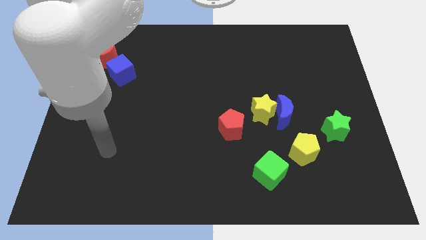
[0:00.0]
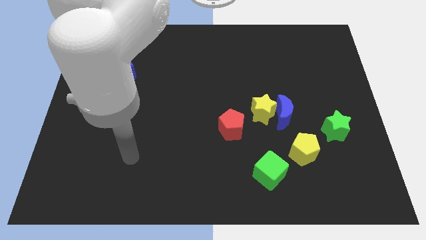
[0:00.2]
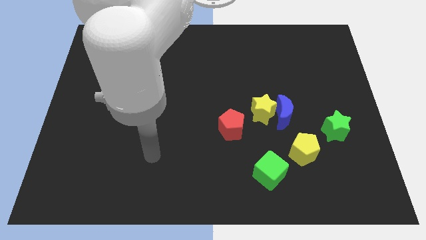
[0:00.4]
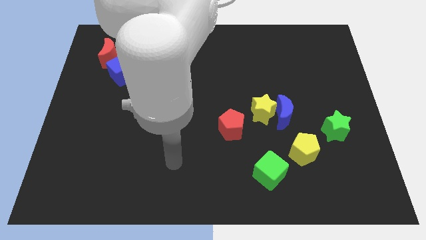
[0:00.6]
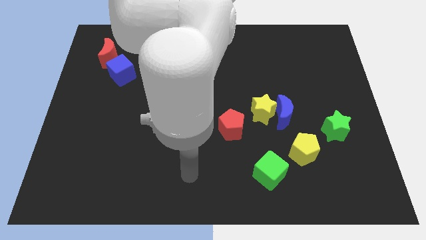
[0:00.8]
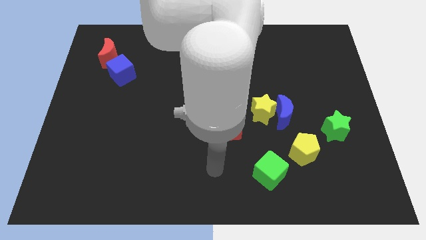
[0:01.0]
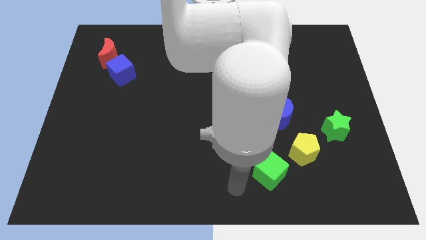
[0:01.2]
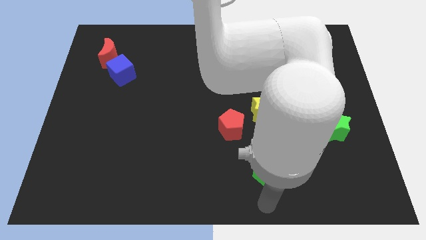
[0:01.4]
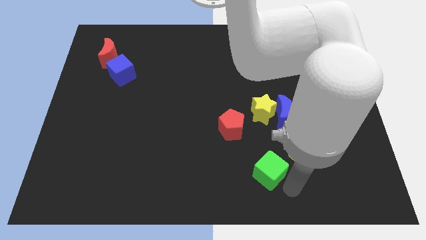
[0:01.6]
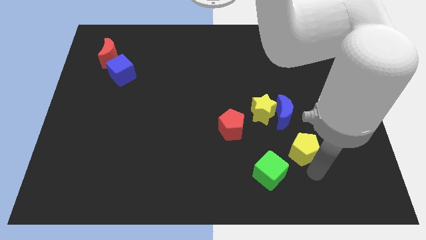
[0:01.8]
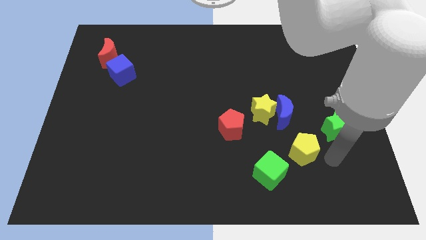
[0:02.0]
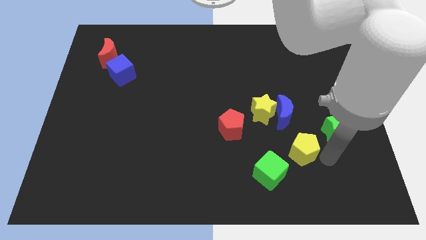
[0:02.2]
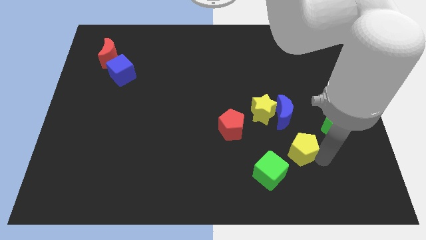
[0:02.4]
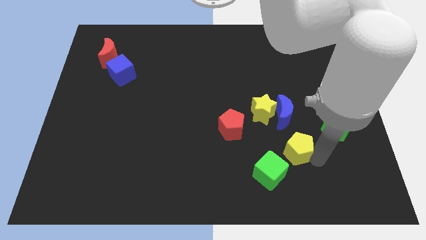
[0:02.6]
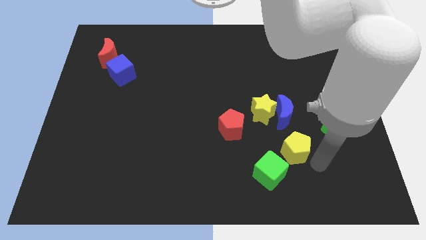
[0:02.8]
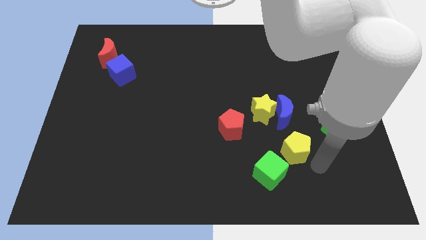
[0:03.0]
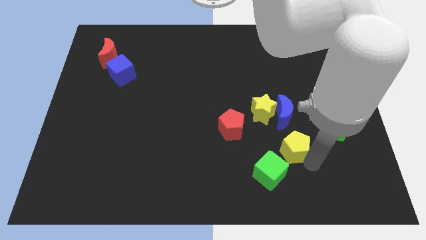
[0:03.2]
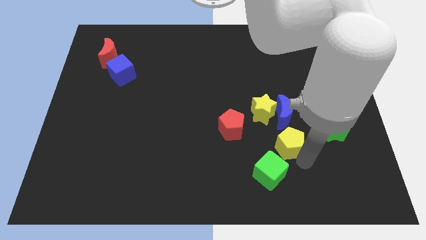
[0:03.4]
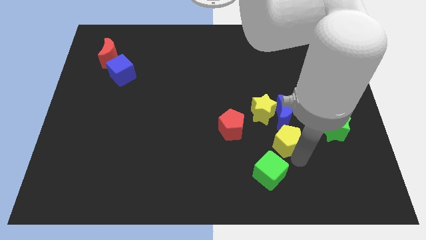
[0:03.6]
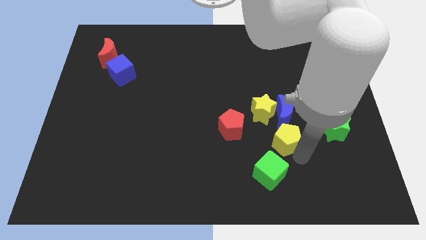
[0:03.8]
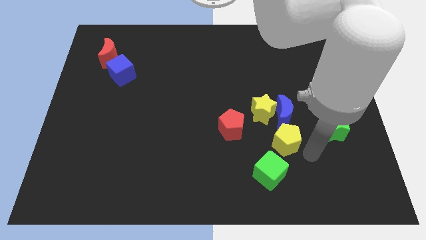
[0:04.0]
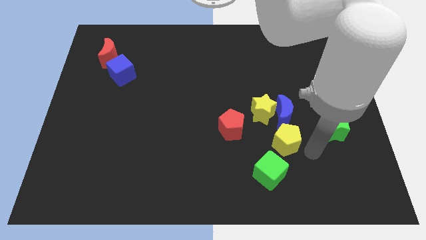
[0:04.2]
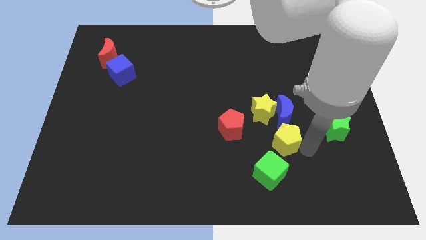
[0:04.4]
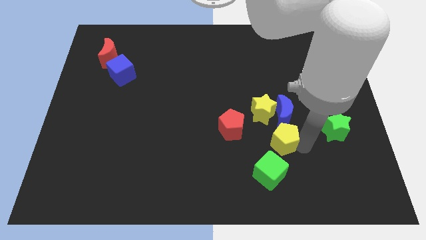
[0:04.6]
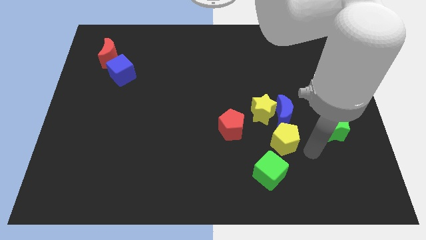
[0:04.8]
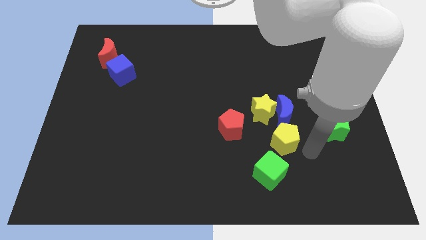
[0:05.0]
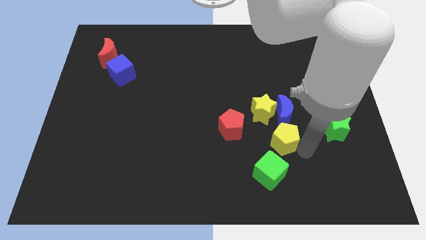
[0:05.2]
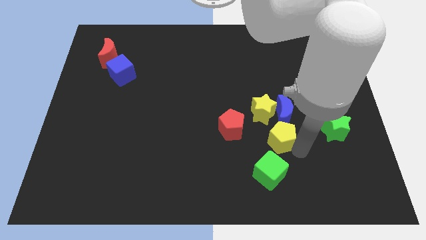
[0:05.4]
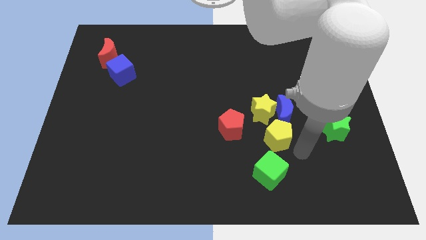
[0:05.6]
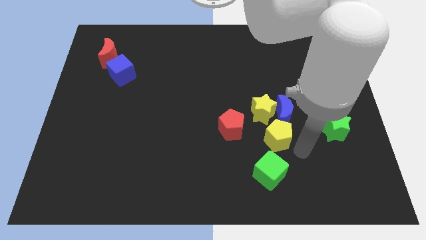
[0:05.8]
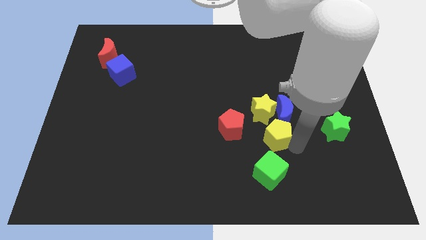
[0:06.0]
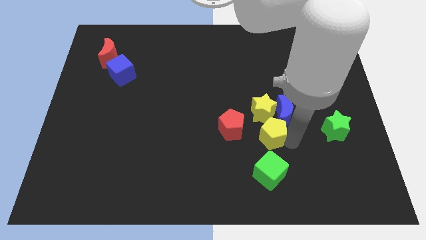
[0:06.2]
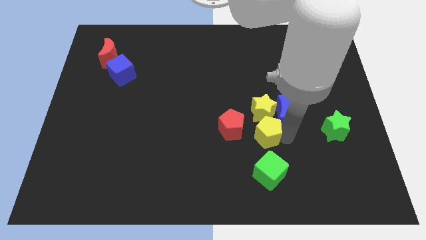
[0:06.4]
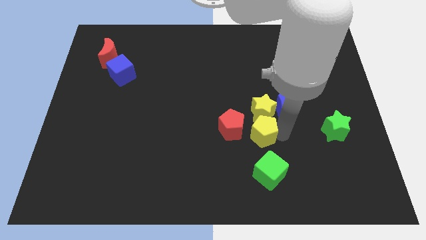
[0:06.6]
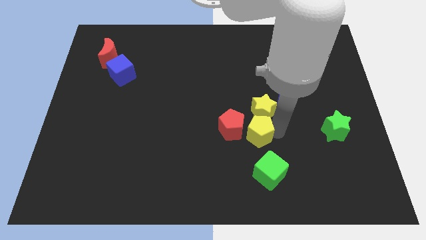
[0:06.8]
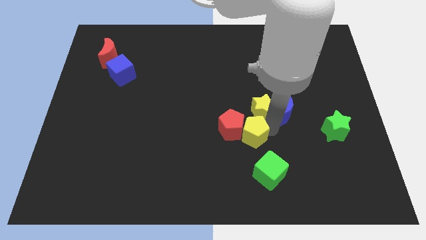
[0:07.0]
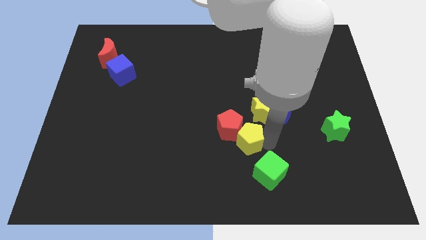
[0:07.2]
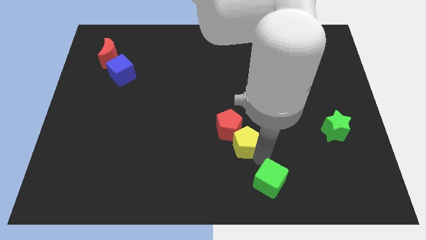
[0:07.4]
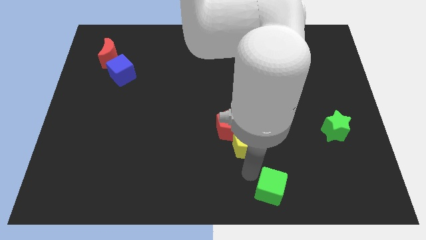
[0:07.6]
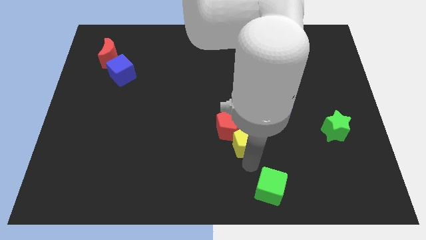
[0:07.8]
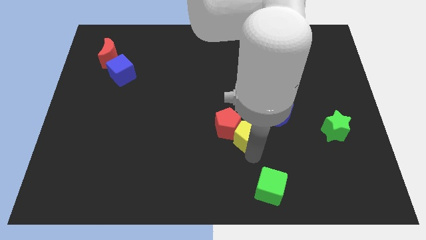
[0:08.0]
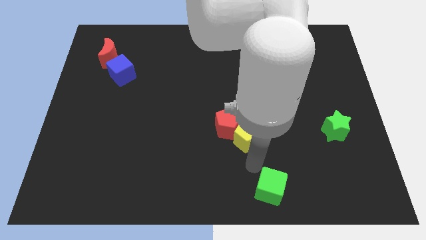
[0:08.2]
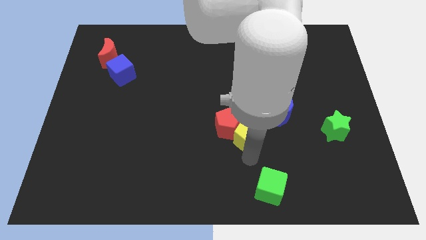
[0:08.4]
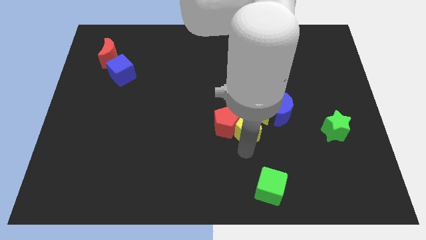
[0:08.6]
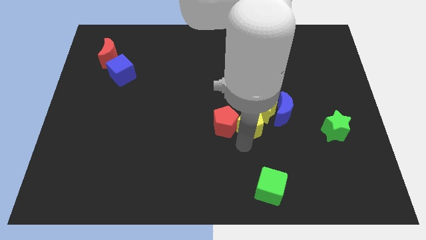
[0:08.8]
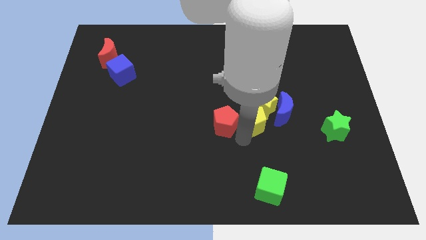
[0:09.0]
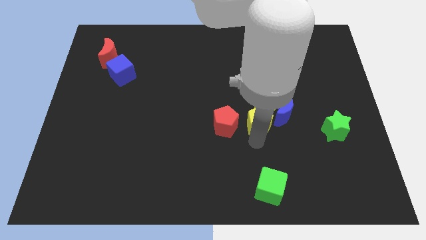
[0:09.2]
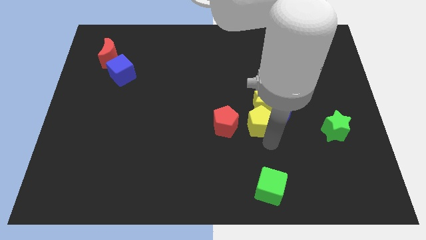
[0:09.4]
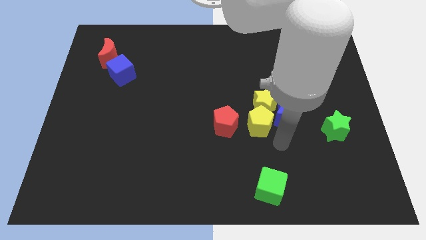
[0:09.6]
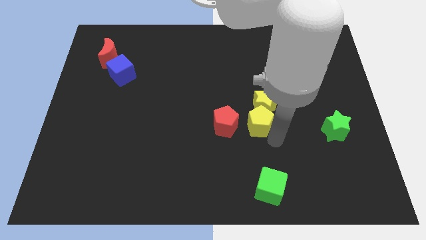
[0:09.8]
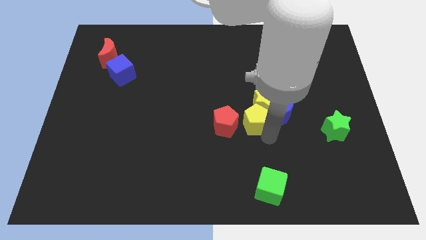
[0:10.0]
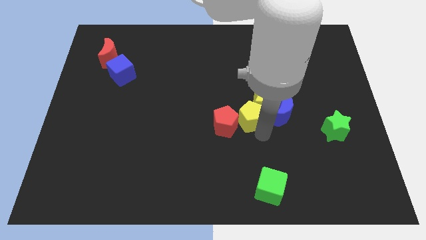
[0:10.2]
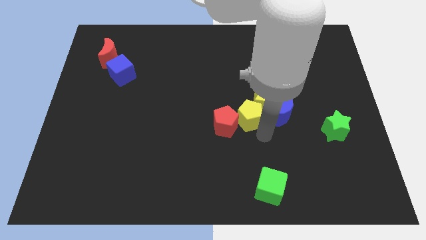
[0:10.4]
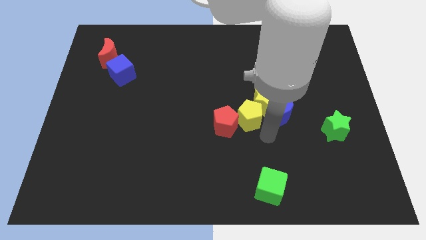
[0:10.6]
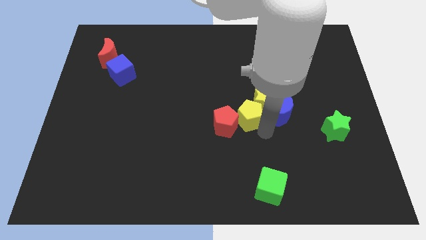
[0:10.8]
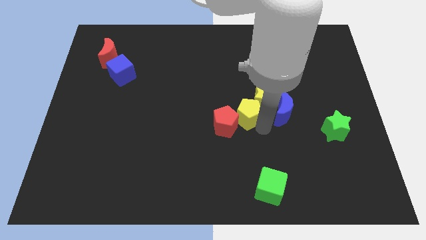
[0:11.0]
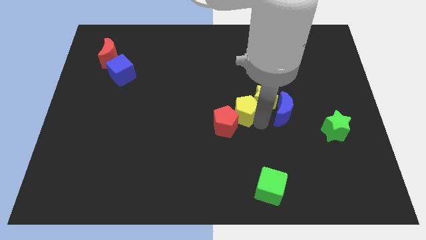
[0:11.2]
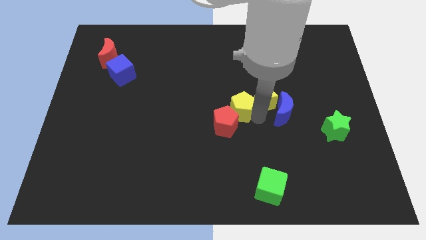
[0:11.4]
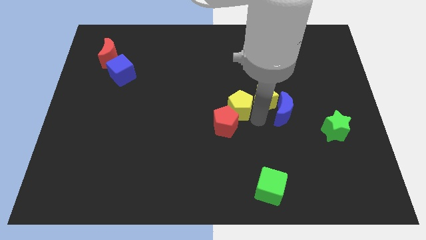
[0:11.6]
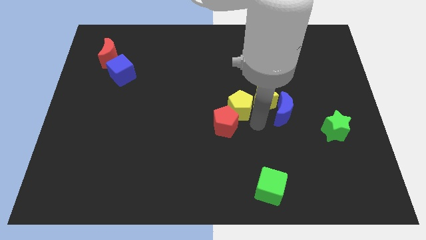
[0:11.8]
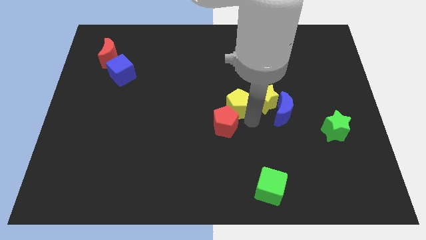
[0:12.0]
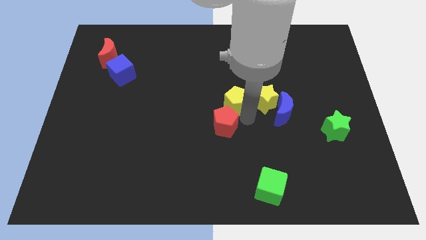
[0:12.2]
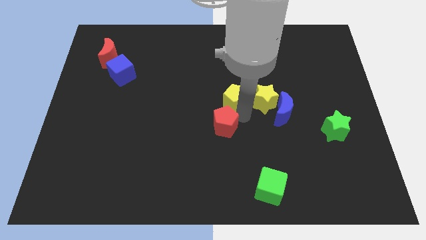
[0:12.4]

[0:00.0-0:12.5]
slide the yellow pentagon upwards and left diagonally

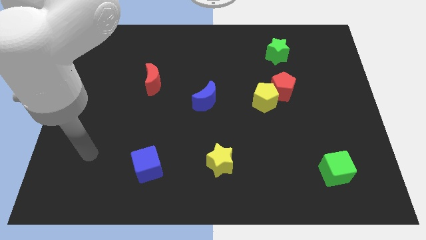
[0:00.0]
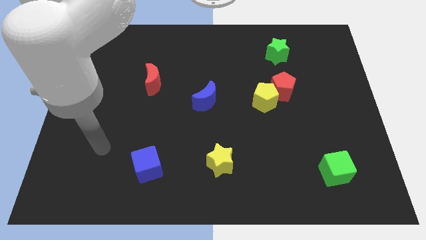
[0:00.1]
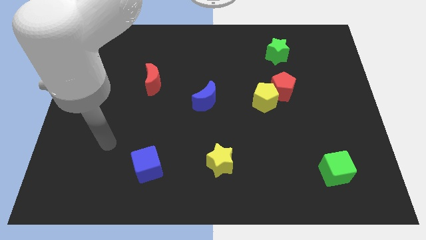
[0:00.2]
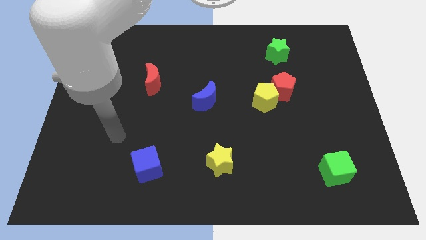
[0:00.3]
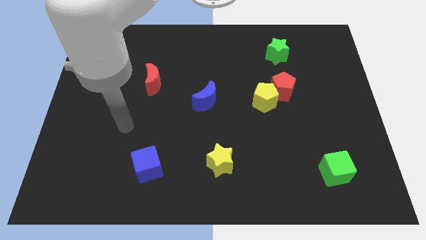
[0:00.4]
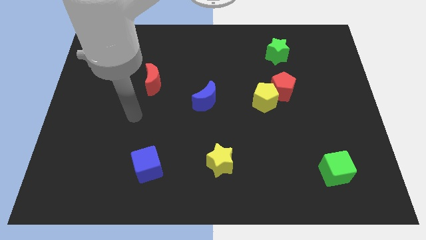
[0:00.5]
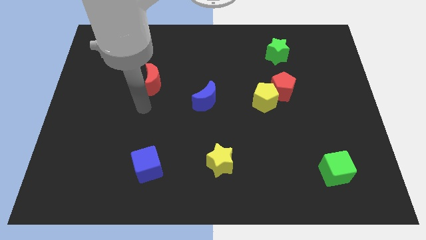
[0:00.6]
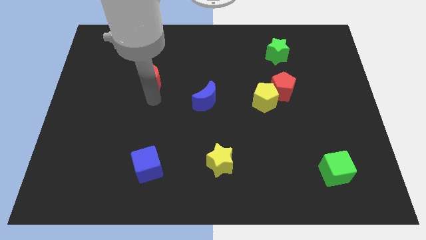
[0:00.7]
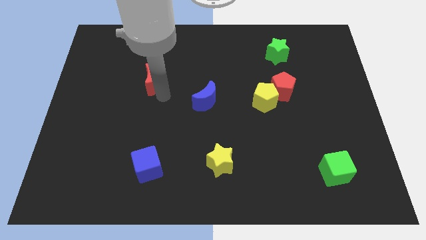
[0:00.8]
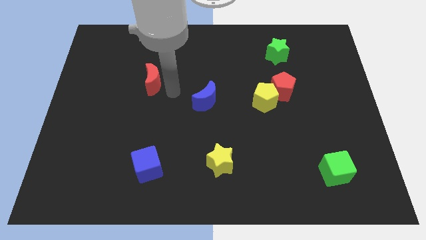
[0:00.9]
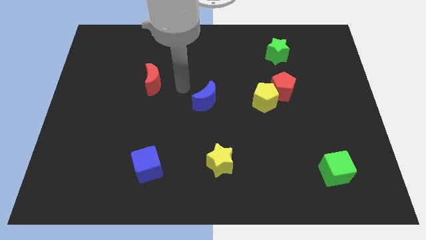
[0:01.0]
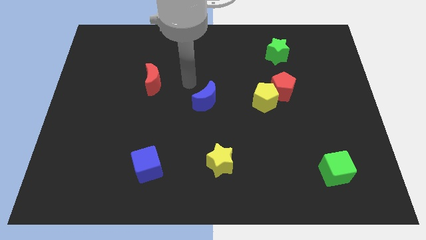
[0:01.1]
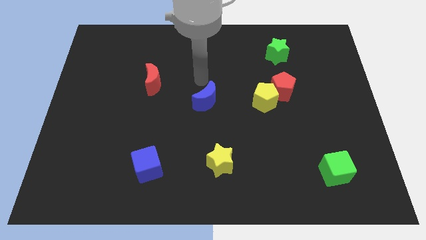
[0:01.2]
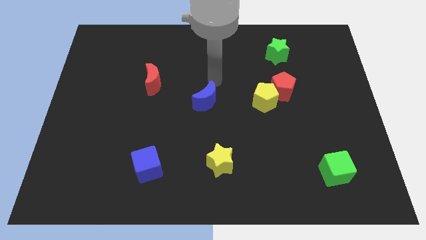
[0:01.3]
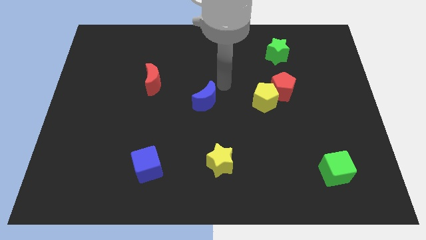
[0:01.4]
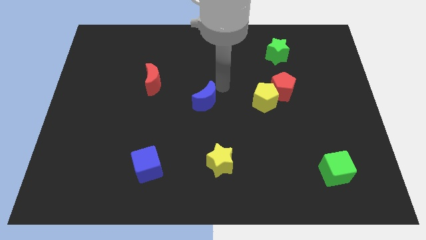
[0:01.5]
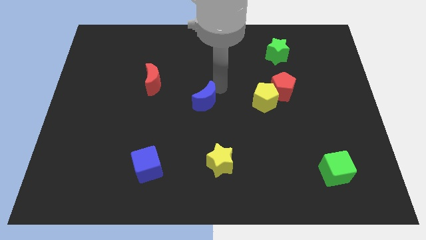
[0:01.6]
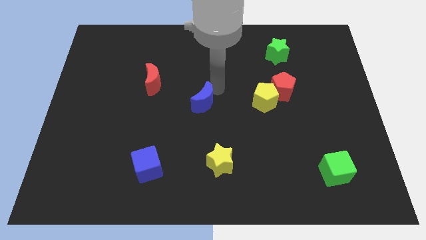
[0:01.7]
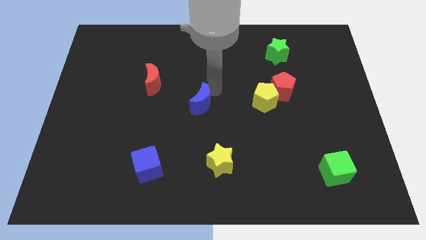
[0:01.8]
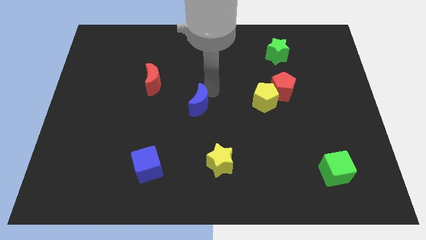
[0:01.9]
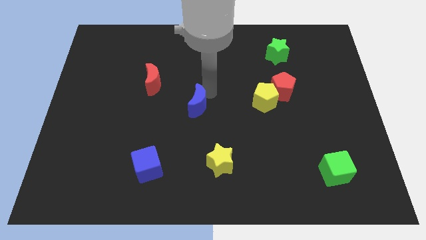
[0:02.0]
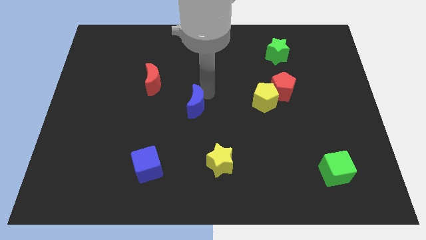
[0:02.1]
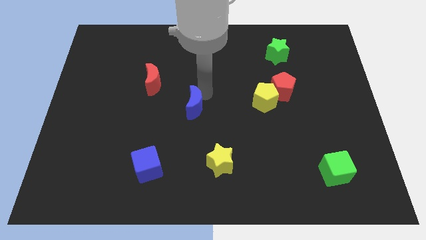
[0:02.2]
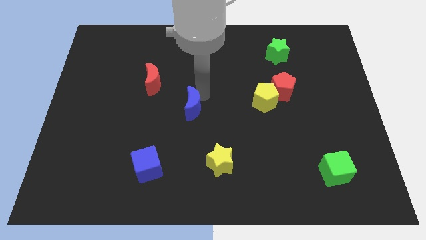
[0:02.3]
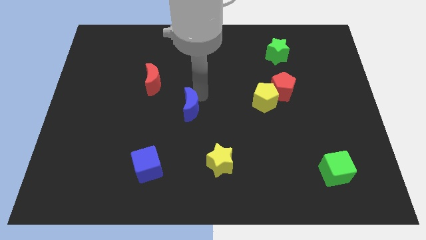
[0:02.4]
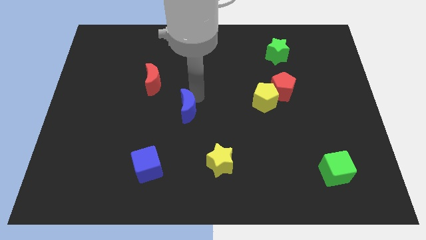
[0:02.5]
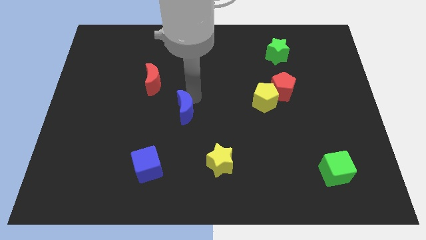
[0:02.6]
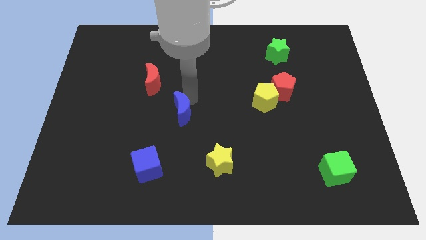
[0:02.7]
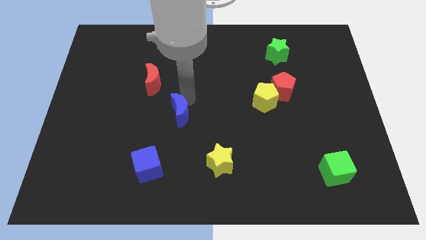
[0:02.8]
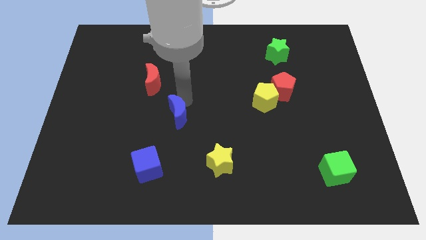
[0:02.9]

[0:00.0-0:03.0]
push the blue moon diagonally downwards and left slightly
